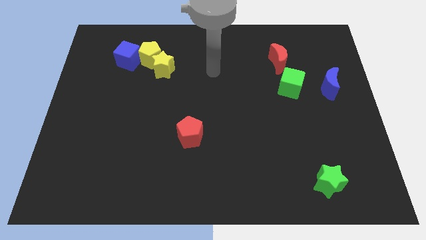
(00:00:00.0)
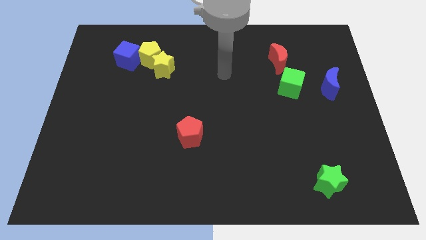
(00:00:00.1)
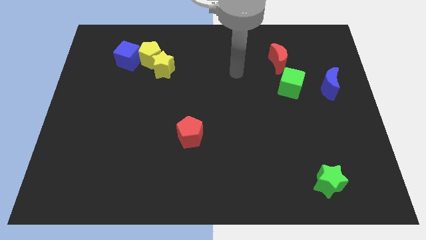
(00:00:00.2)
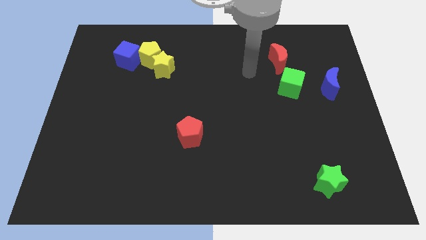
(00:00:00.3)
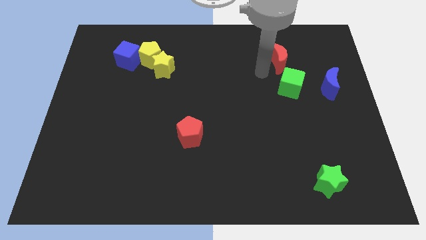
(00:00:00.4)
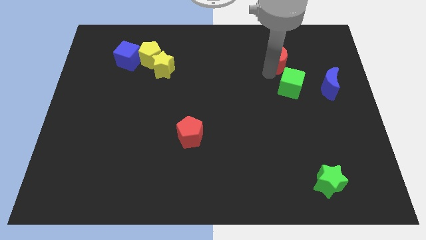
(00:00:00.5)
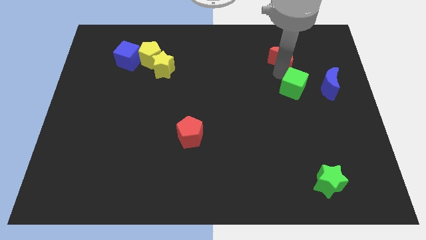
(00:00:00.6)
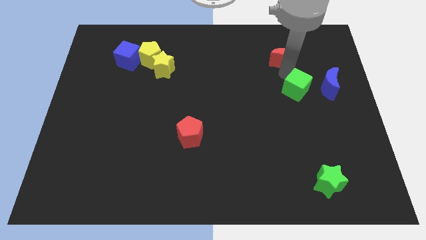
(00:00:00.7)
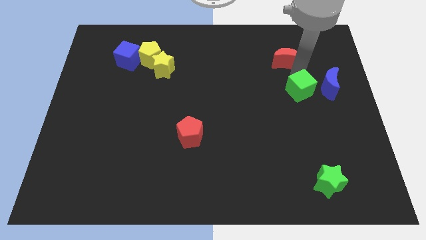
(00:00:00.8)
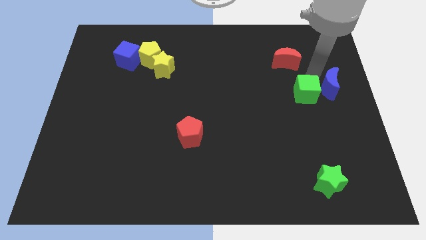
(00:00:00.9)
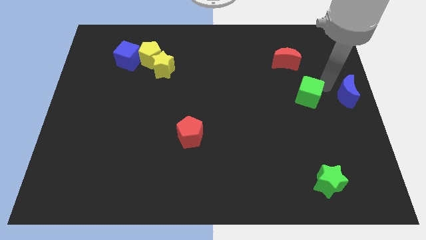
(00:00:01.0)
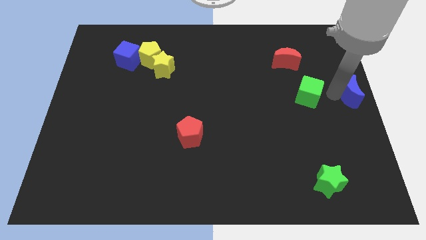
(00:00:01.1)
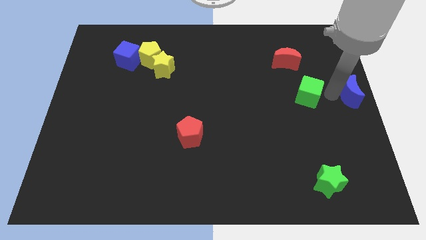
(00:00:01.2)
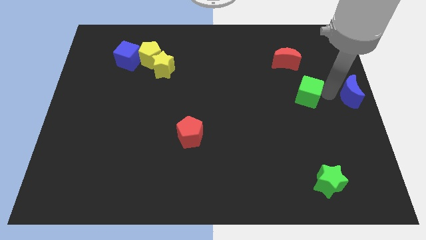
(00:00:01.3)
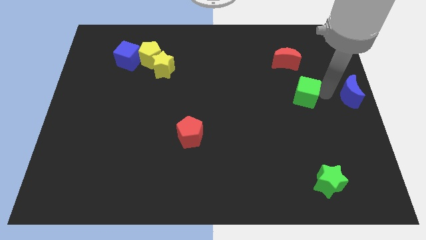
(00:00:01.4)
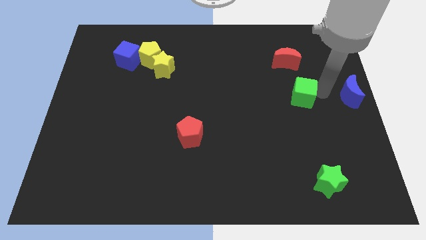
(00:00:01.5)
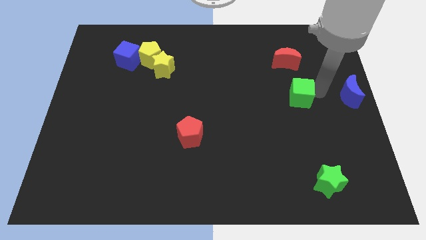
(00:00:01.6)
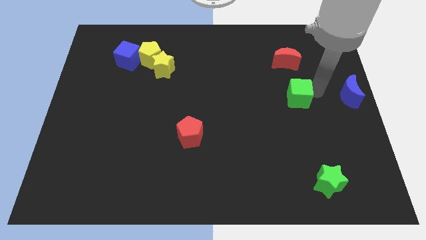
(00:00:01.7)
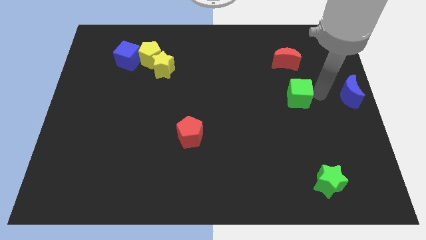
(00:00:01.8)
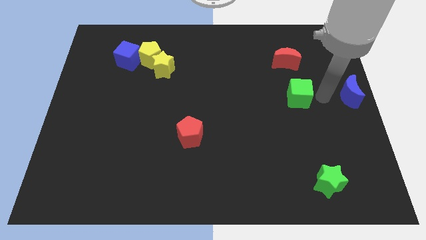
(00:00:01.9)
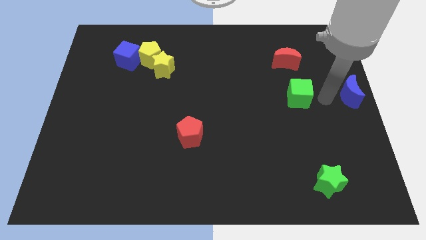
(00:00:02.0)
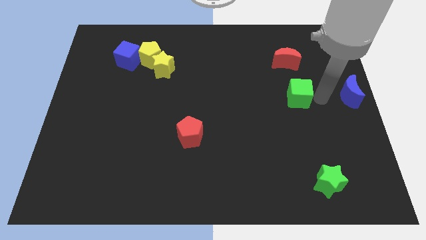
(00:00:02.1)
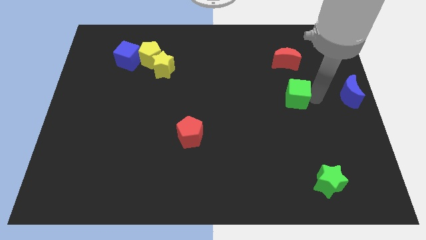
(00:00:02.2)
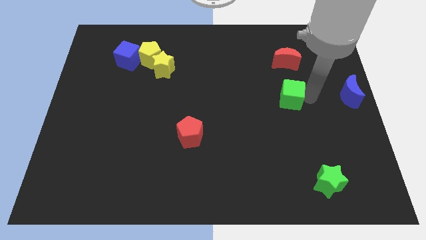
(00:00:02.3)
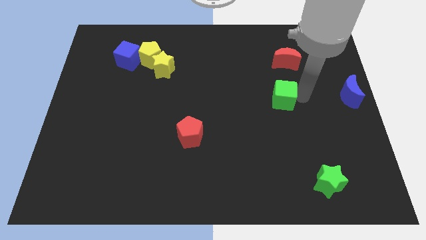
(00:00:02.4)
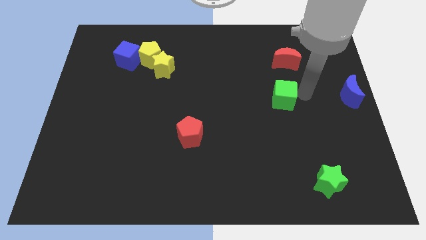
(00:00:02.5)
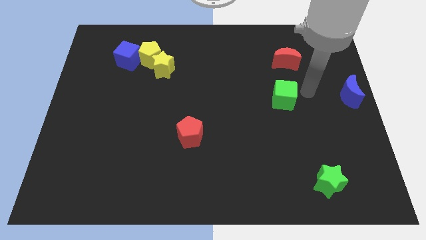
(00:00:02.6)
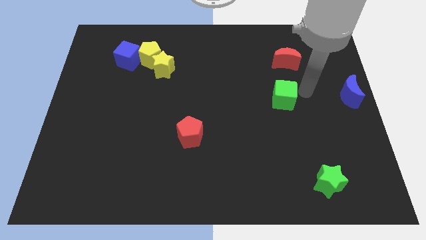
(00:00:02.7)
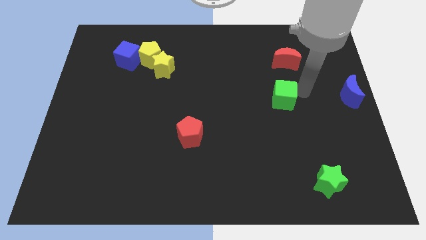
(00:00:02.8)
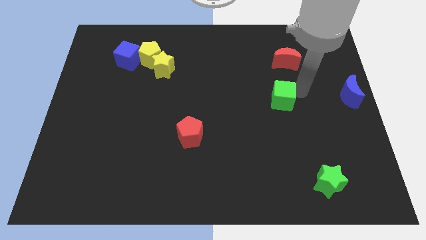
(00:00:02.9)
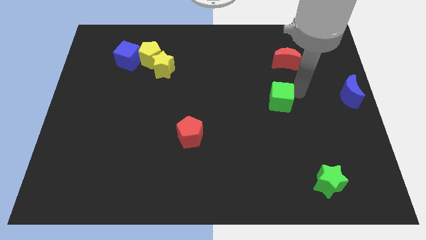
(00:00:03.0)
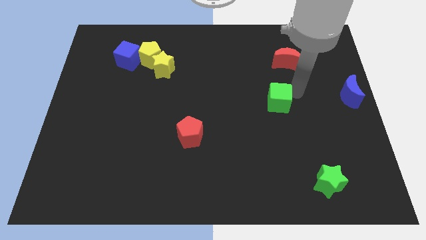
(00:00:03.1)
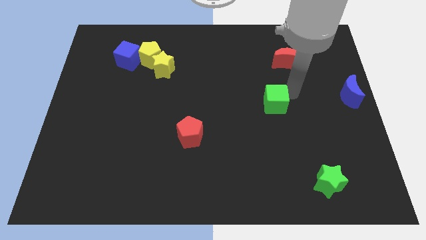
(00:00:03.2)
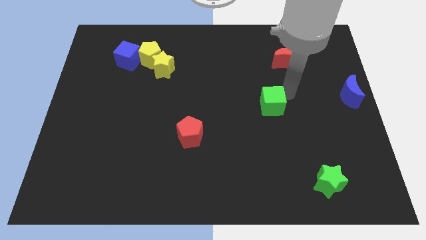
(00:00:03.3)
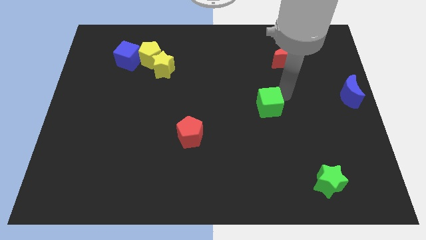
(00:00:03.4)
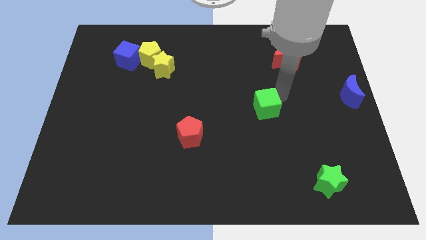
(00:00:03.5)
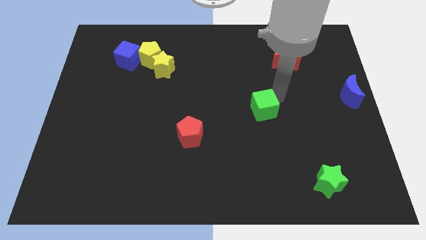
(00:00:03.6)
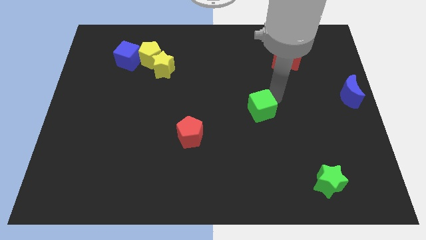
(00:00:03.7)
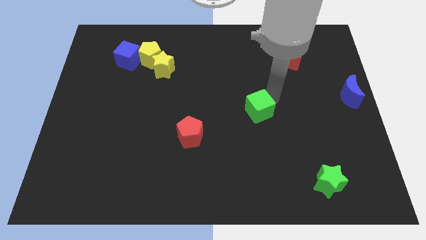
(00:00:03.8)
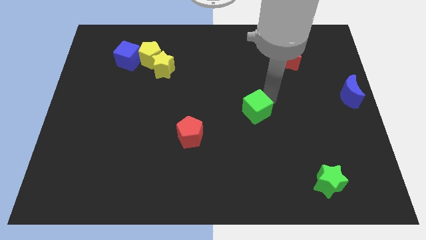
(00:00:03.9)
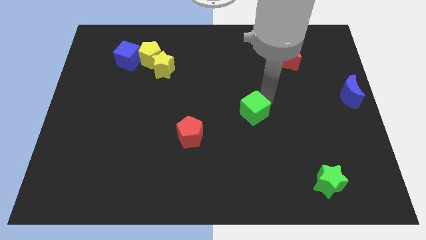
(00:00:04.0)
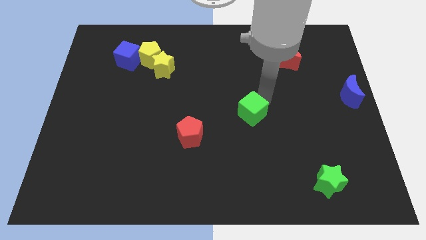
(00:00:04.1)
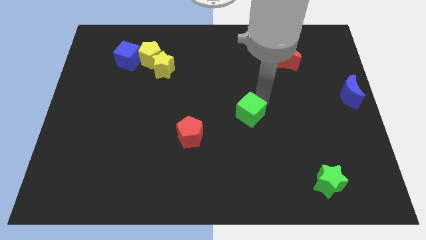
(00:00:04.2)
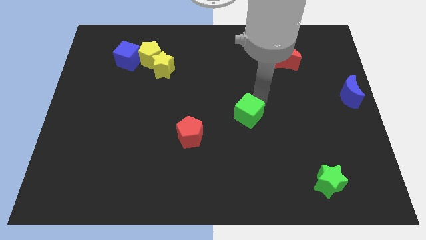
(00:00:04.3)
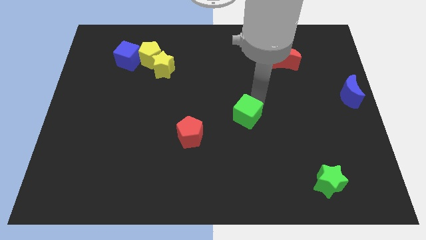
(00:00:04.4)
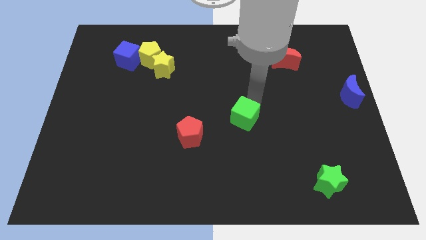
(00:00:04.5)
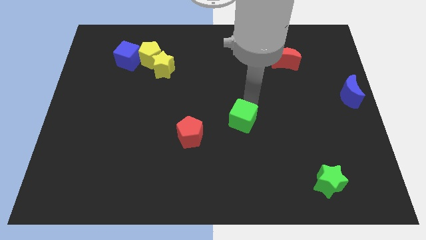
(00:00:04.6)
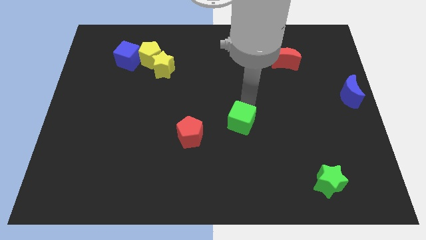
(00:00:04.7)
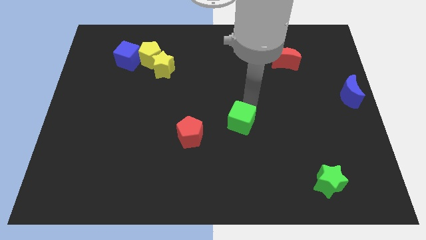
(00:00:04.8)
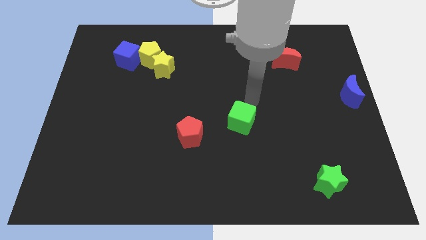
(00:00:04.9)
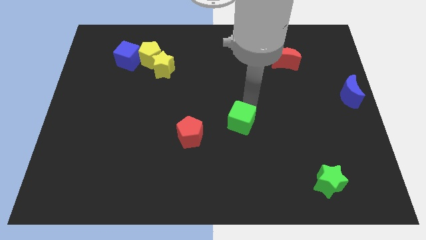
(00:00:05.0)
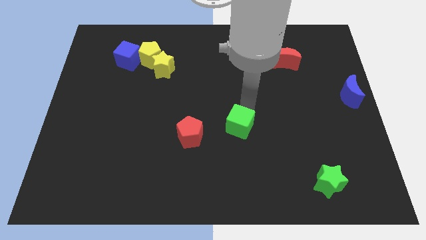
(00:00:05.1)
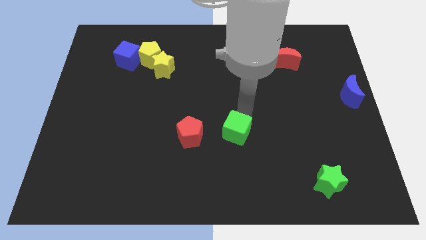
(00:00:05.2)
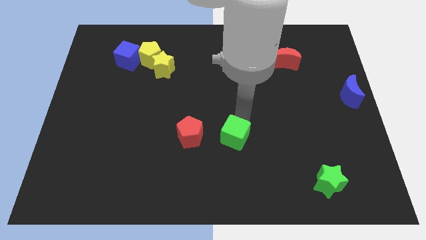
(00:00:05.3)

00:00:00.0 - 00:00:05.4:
push the green cube diagonally down and left

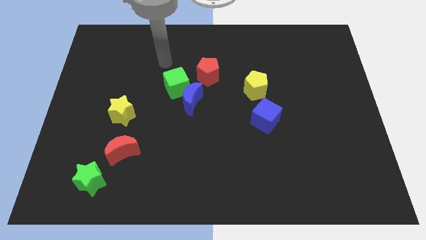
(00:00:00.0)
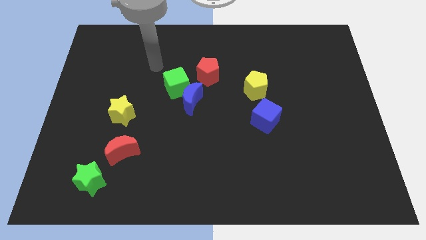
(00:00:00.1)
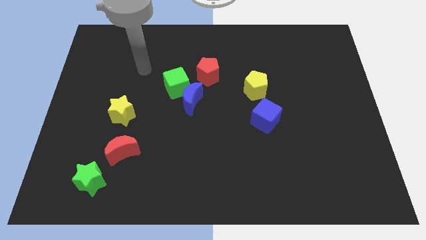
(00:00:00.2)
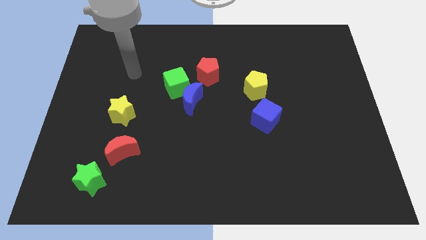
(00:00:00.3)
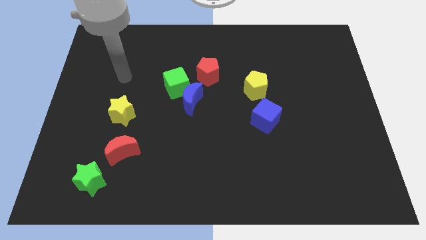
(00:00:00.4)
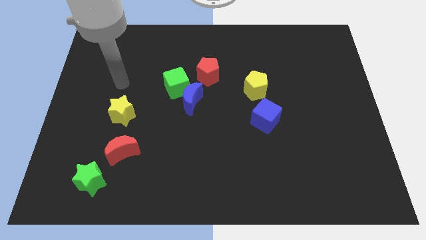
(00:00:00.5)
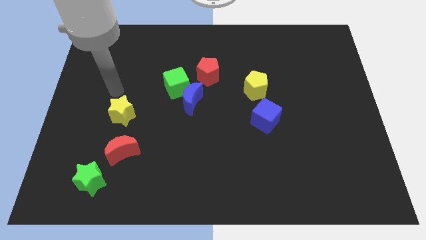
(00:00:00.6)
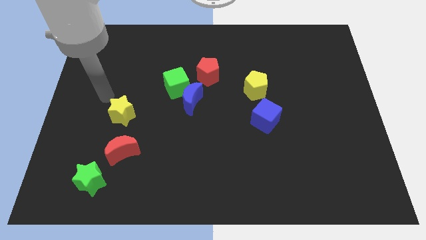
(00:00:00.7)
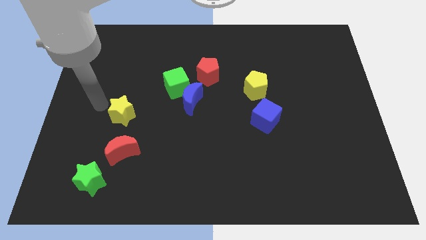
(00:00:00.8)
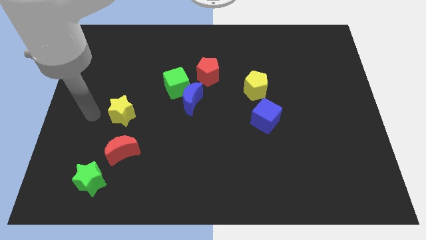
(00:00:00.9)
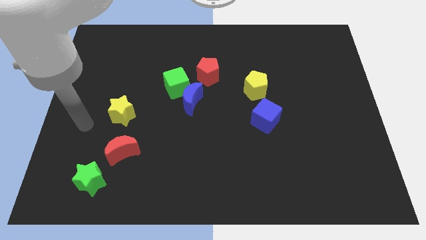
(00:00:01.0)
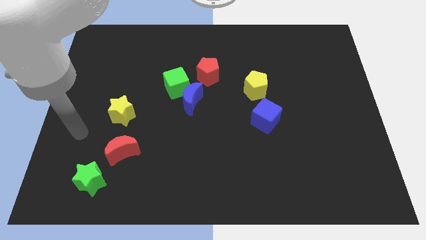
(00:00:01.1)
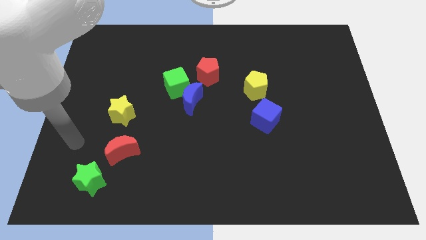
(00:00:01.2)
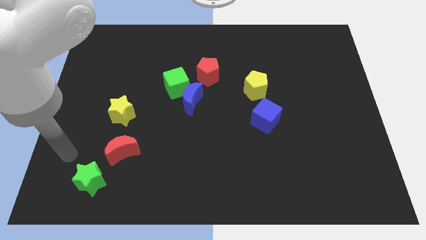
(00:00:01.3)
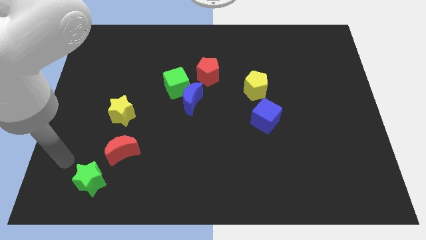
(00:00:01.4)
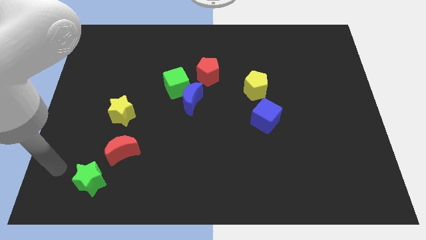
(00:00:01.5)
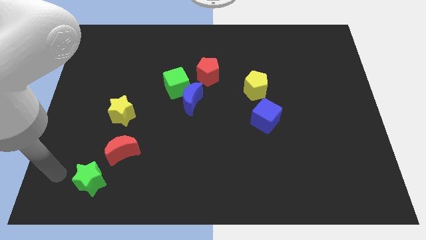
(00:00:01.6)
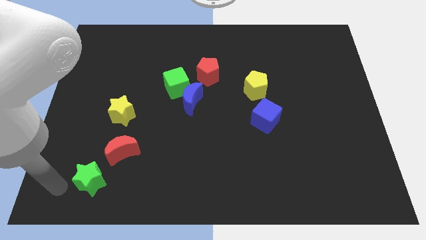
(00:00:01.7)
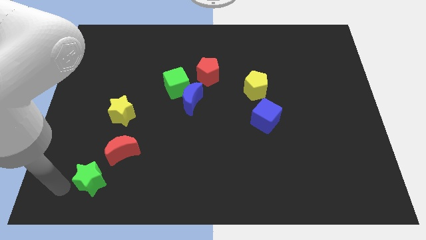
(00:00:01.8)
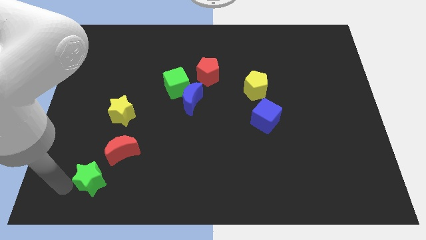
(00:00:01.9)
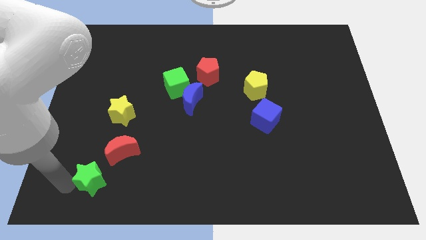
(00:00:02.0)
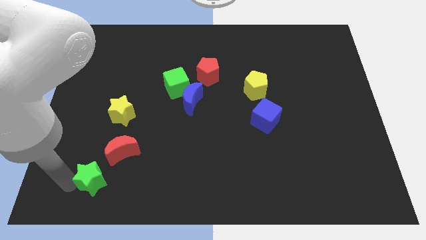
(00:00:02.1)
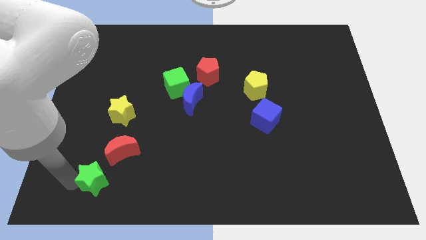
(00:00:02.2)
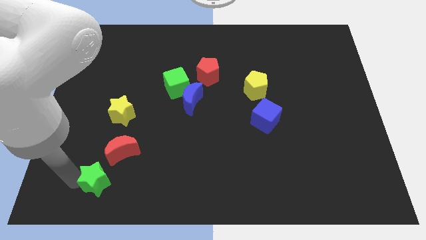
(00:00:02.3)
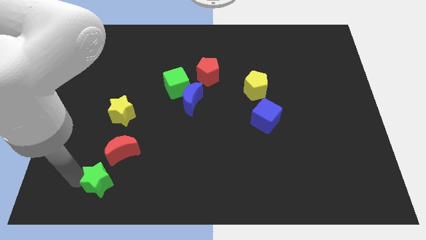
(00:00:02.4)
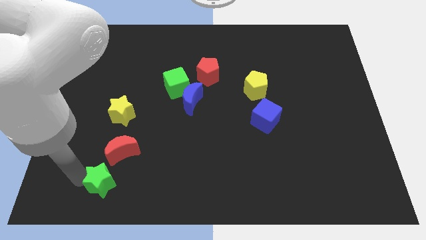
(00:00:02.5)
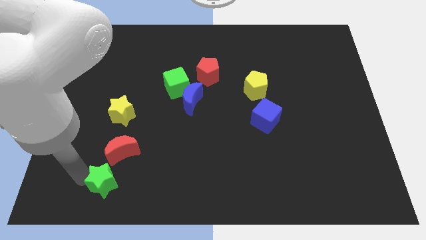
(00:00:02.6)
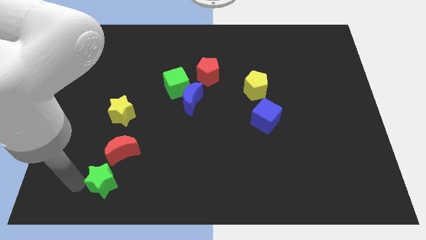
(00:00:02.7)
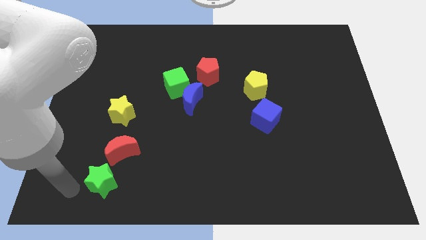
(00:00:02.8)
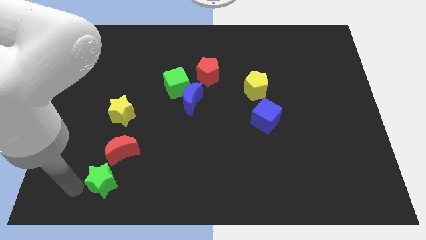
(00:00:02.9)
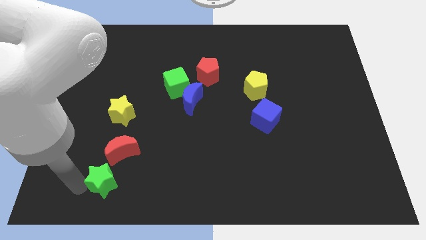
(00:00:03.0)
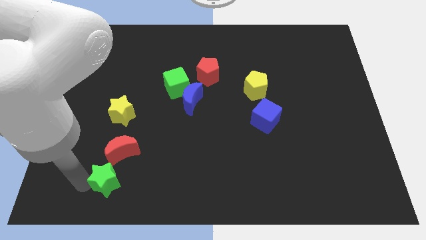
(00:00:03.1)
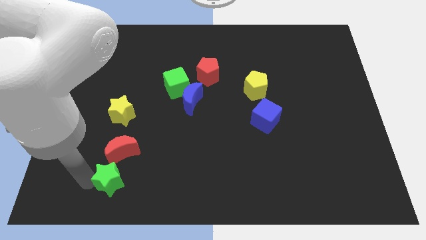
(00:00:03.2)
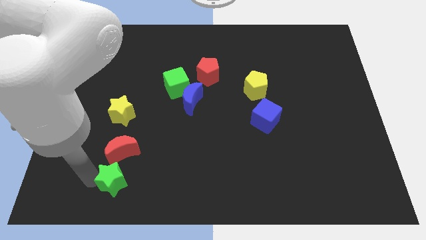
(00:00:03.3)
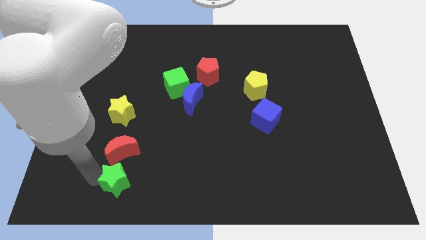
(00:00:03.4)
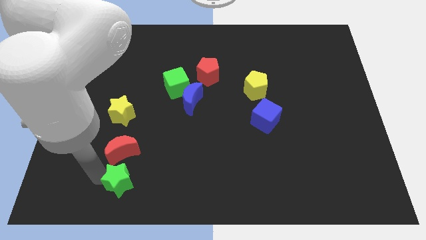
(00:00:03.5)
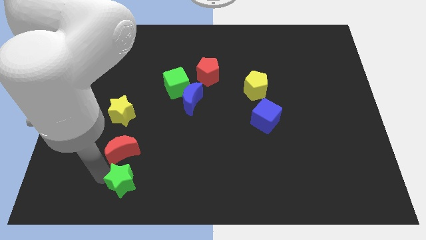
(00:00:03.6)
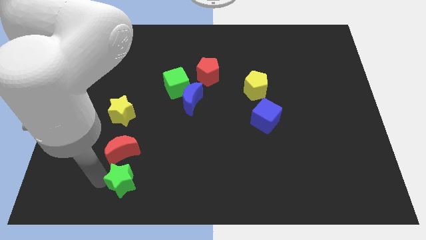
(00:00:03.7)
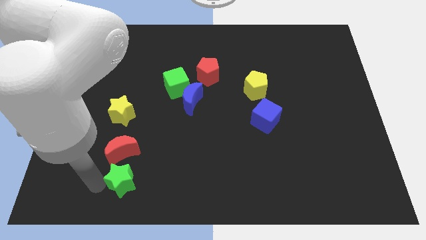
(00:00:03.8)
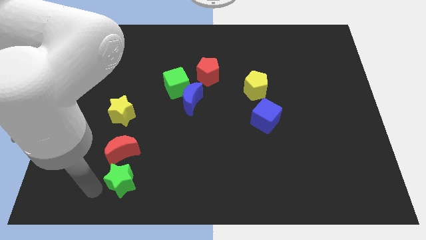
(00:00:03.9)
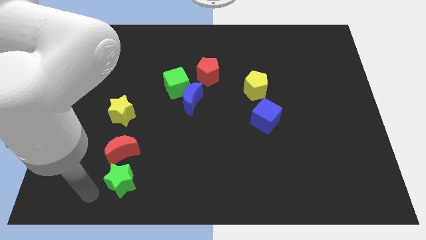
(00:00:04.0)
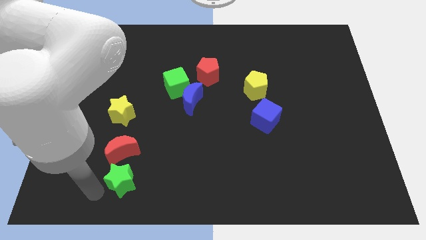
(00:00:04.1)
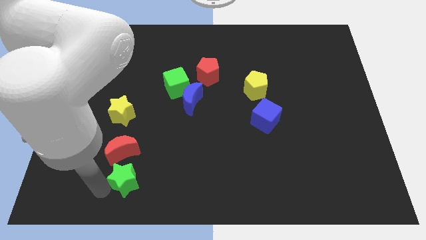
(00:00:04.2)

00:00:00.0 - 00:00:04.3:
move the green star right a little bit
